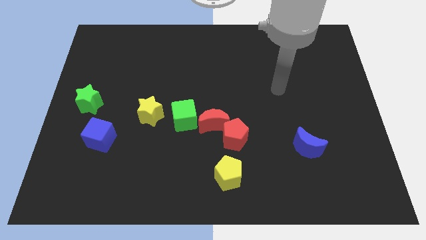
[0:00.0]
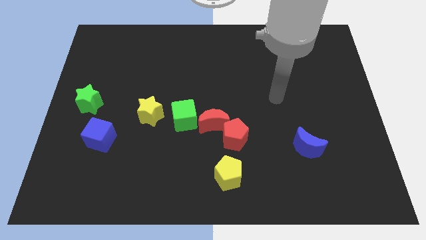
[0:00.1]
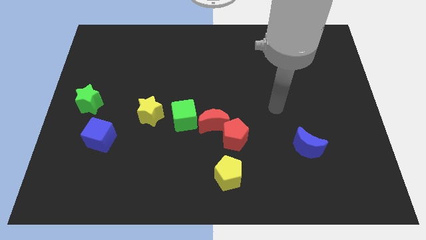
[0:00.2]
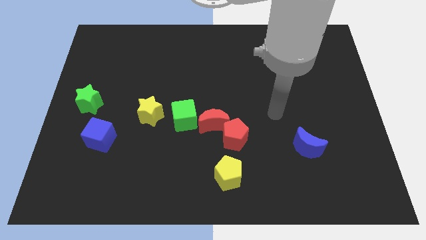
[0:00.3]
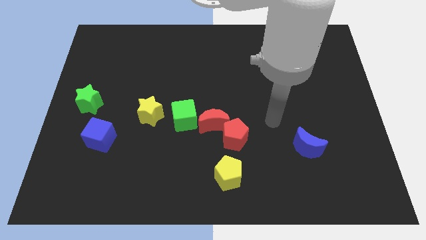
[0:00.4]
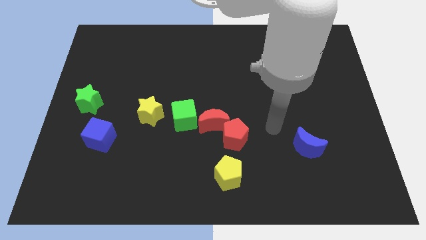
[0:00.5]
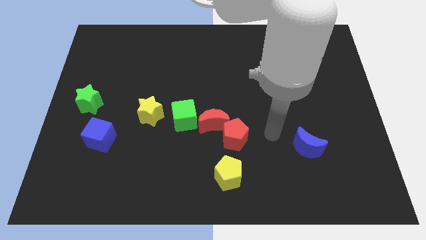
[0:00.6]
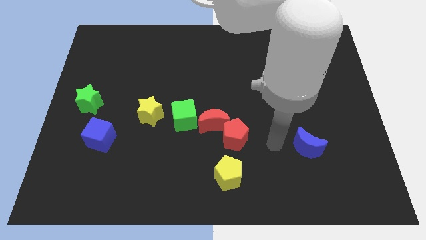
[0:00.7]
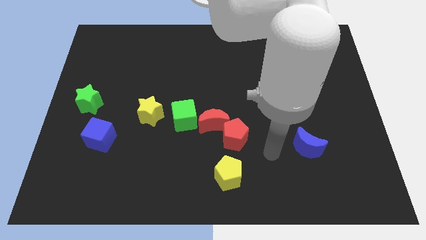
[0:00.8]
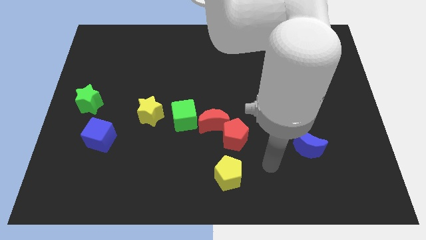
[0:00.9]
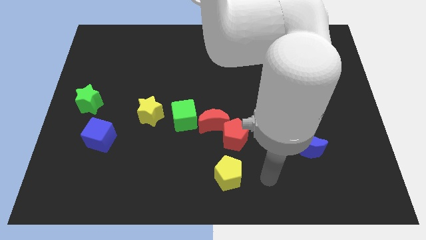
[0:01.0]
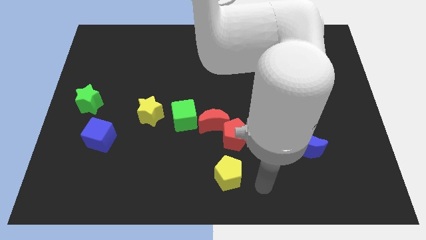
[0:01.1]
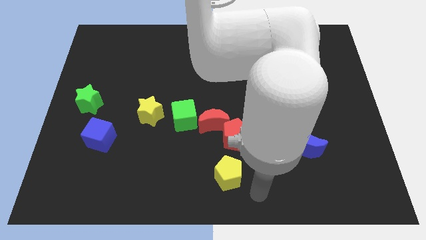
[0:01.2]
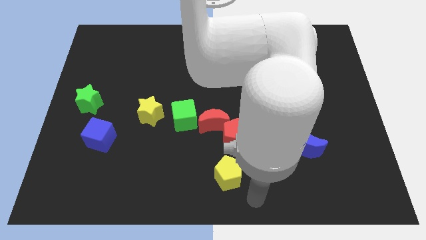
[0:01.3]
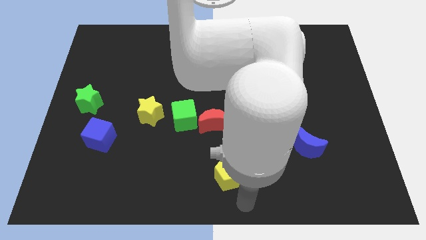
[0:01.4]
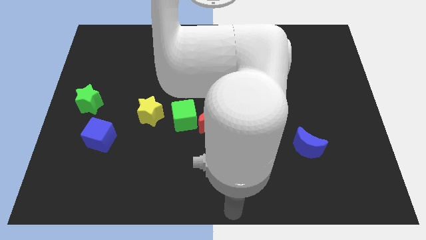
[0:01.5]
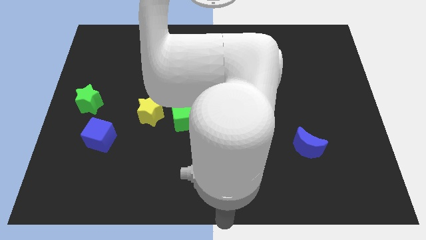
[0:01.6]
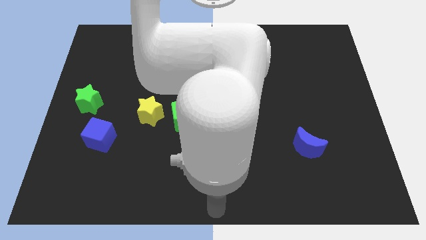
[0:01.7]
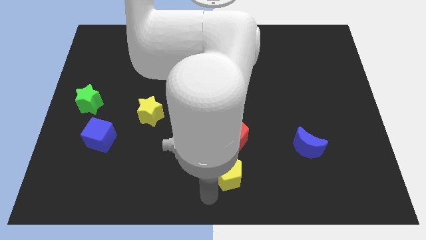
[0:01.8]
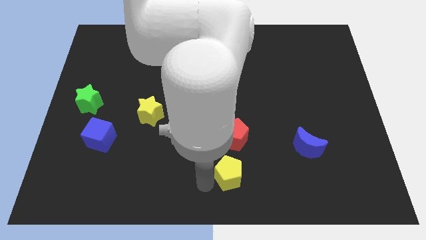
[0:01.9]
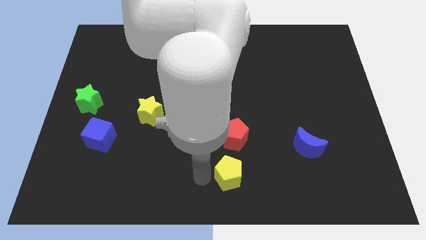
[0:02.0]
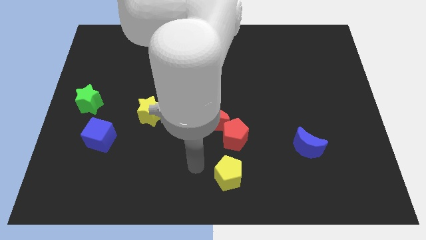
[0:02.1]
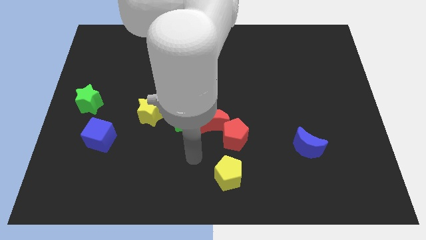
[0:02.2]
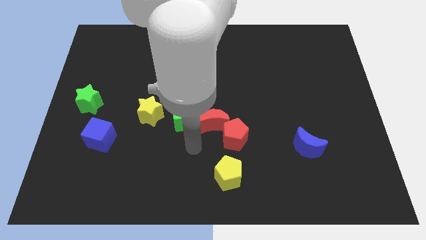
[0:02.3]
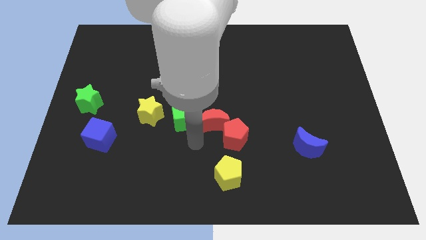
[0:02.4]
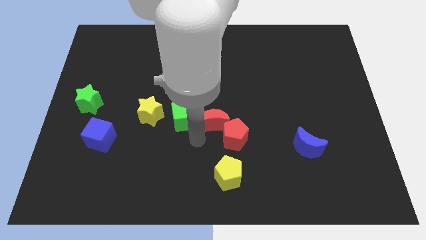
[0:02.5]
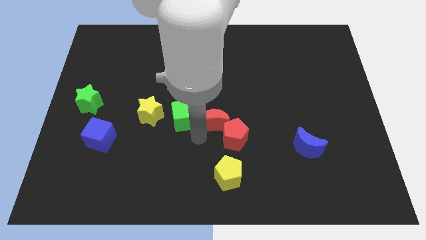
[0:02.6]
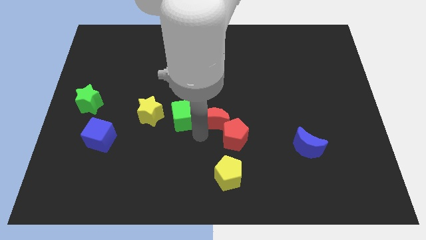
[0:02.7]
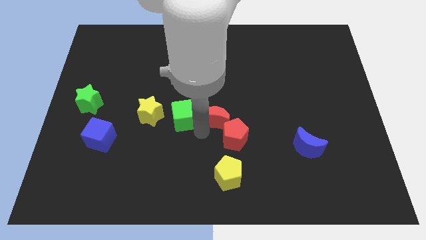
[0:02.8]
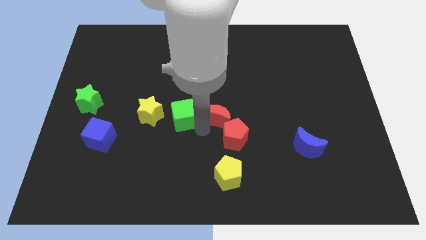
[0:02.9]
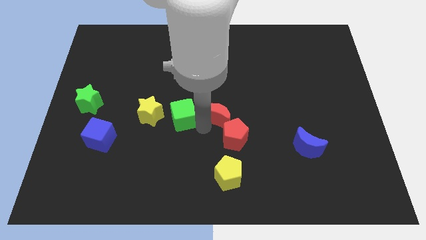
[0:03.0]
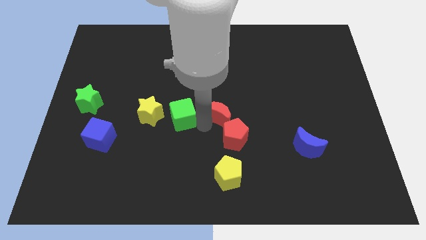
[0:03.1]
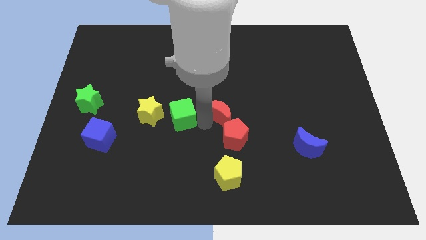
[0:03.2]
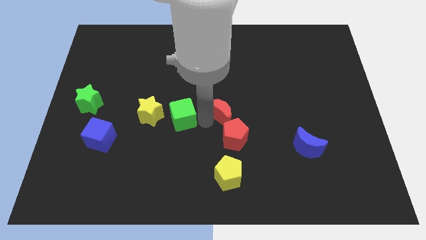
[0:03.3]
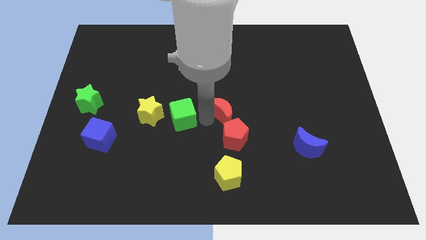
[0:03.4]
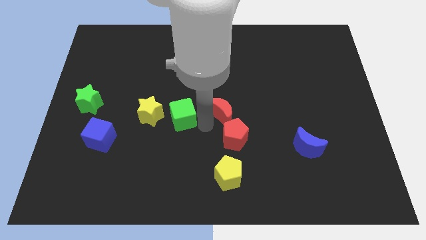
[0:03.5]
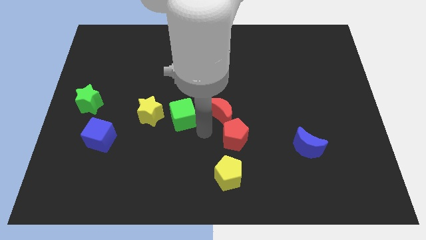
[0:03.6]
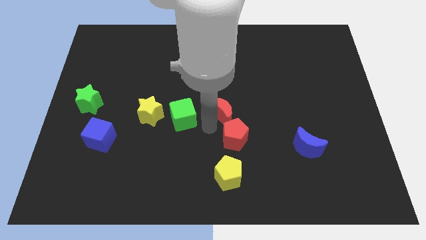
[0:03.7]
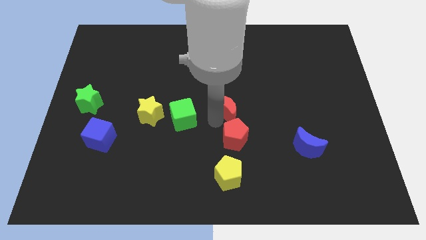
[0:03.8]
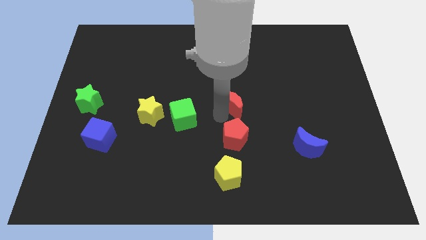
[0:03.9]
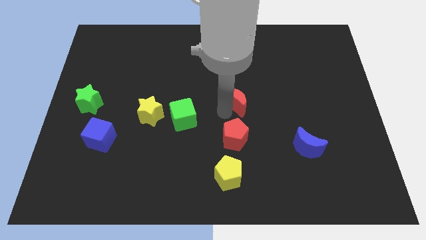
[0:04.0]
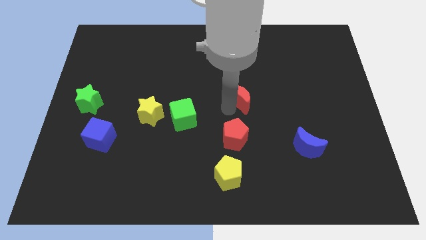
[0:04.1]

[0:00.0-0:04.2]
separate the red moon from the red pentagon and green cube

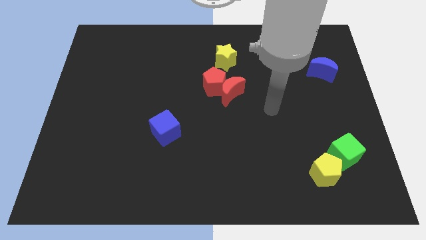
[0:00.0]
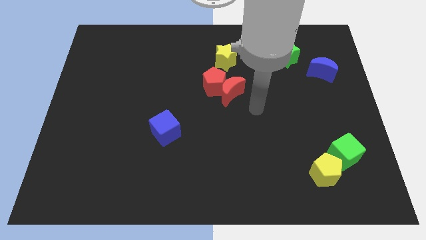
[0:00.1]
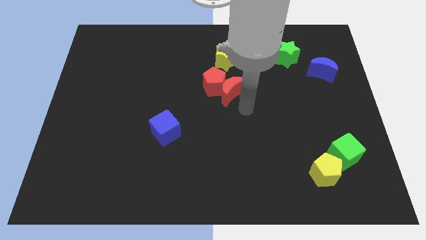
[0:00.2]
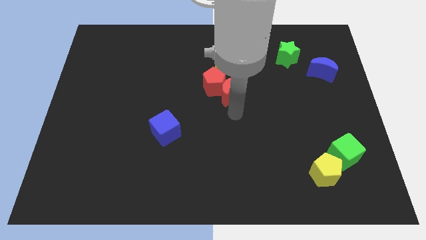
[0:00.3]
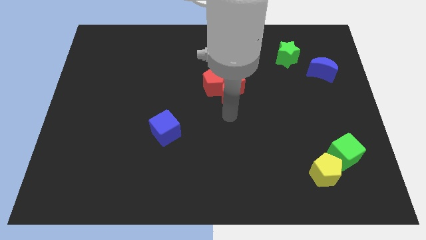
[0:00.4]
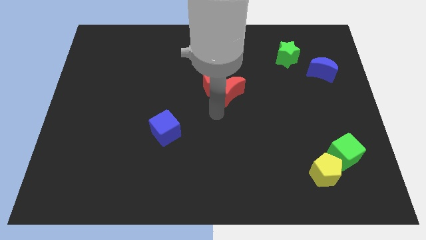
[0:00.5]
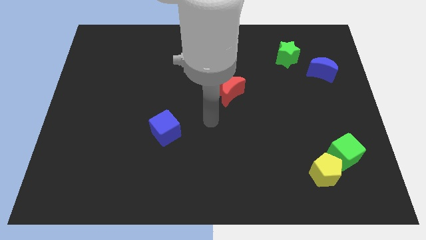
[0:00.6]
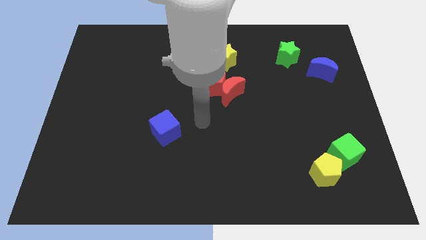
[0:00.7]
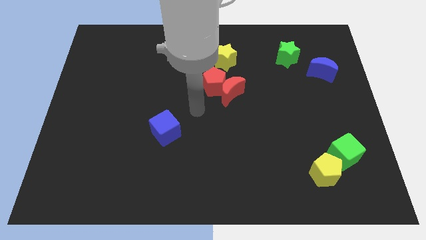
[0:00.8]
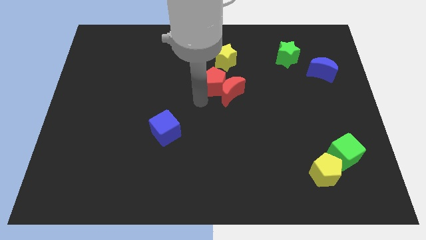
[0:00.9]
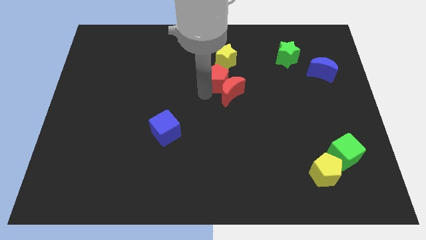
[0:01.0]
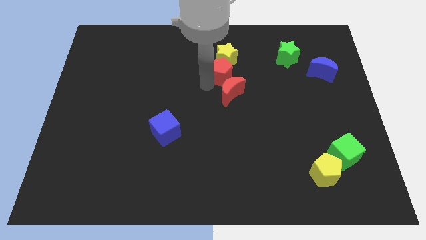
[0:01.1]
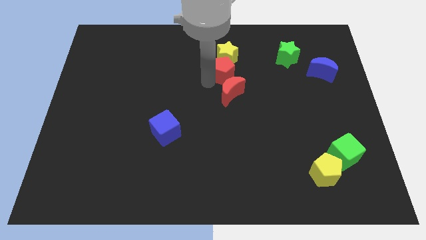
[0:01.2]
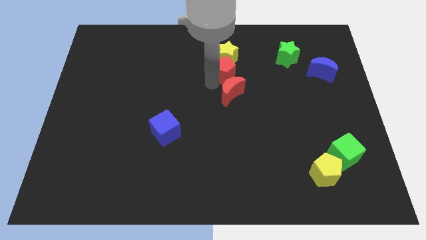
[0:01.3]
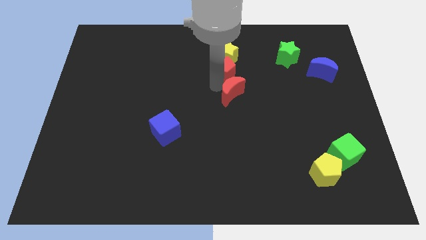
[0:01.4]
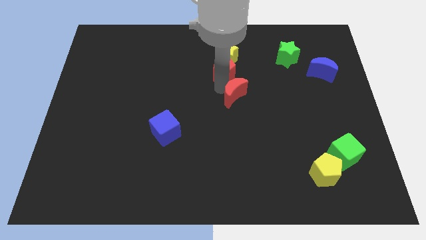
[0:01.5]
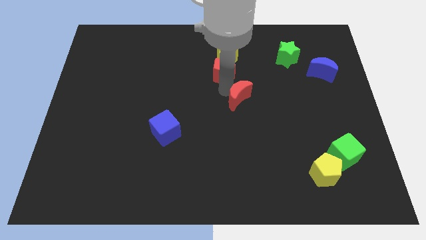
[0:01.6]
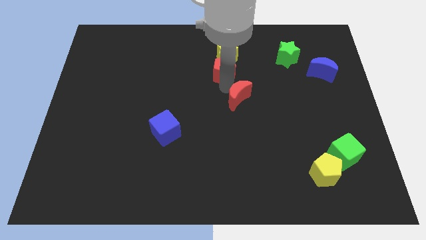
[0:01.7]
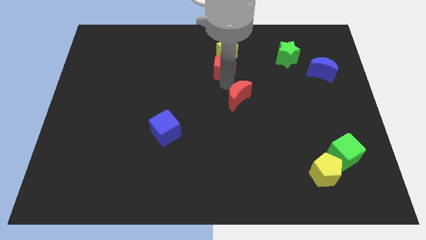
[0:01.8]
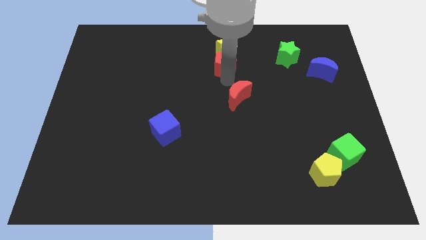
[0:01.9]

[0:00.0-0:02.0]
pull the red moon apart from the red pentagon

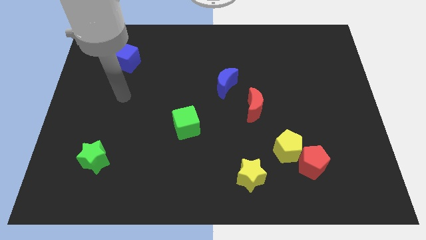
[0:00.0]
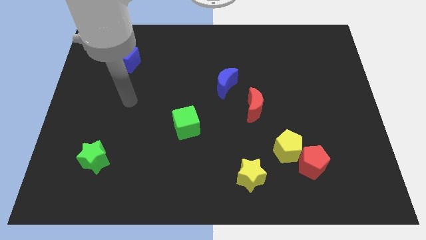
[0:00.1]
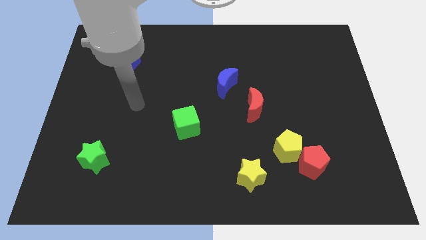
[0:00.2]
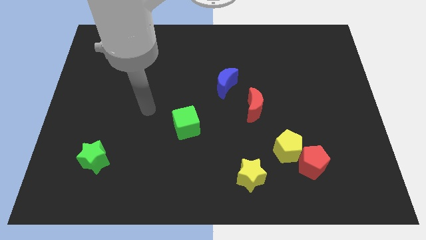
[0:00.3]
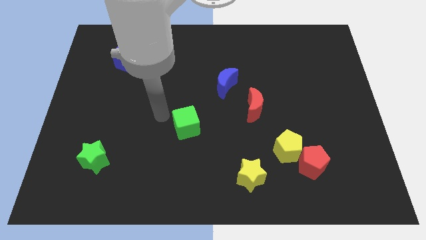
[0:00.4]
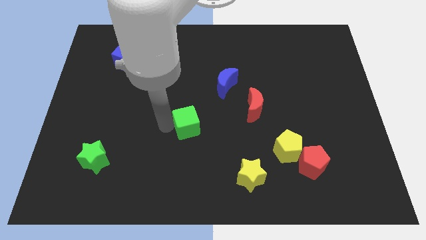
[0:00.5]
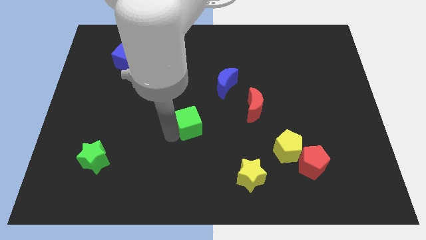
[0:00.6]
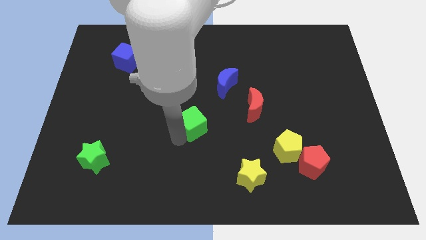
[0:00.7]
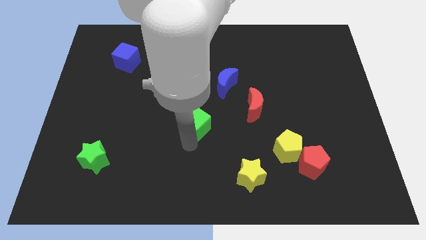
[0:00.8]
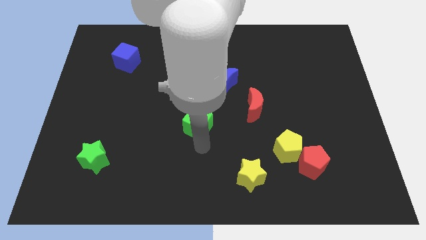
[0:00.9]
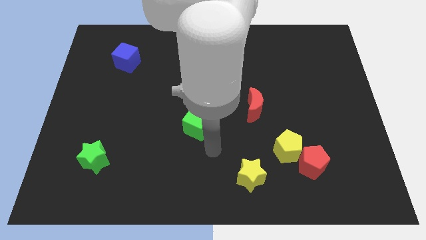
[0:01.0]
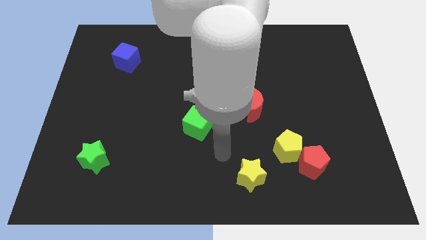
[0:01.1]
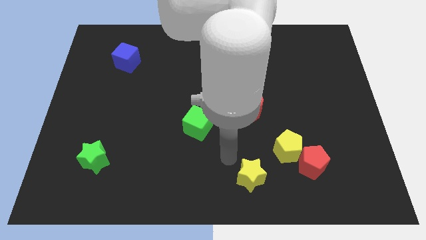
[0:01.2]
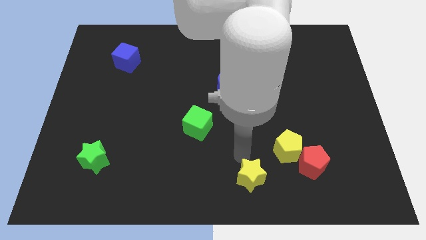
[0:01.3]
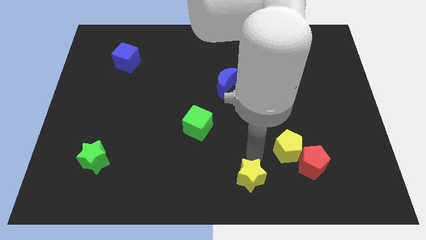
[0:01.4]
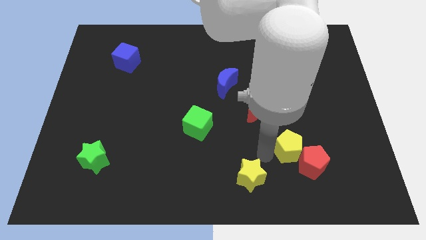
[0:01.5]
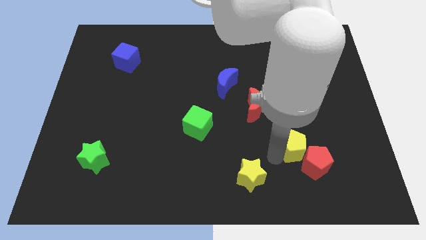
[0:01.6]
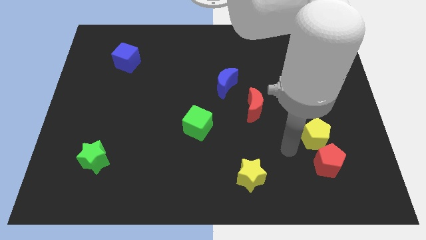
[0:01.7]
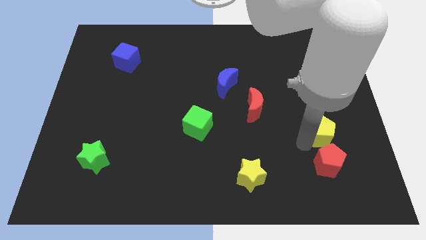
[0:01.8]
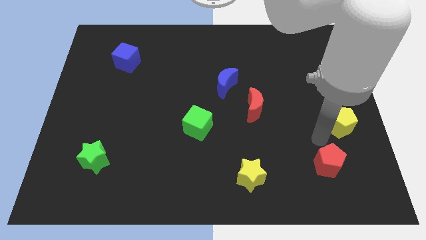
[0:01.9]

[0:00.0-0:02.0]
pull the red pentagon apart from the yellow pentagon

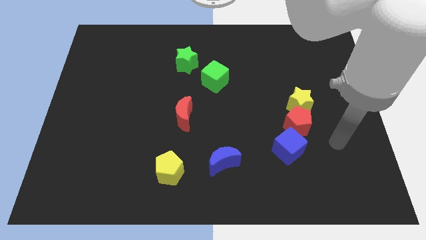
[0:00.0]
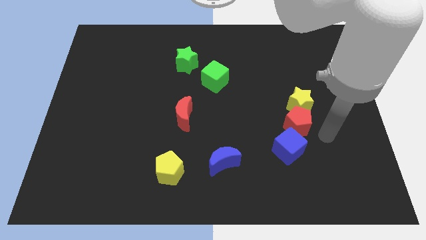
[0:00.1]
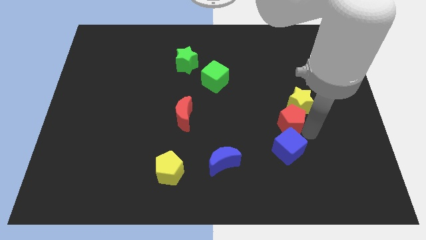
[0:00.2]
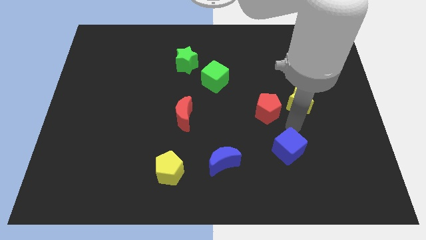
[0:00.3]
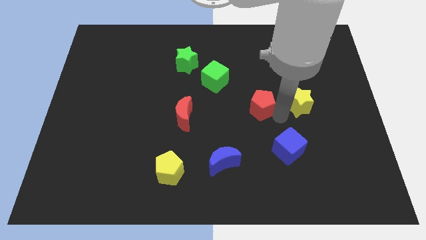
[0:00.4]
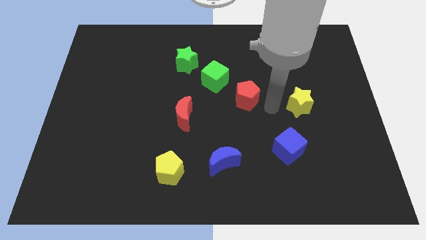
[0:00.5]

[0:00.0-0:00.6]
move the yellow star away from the red pentagon

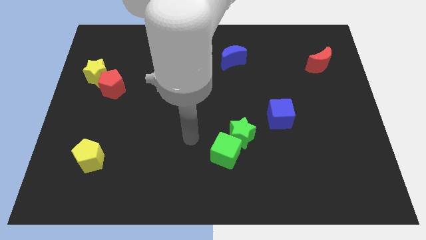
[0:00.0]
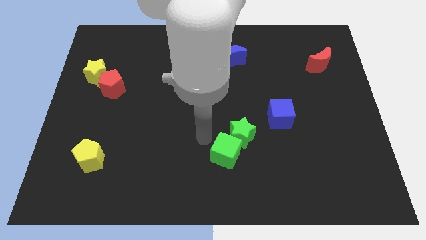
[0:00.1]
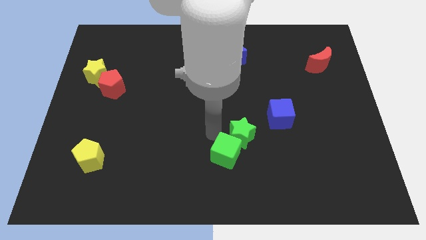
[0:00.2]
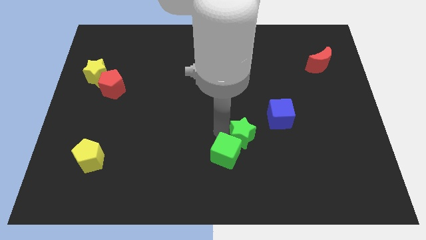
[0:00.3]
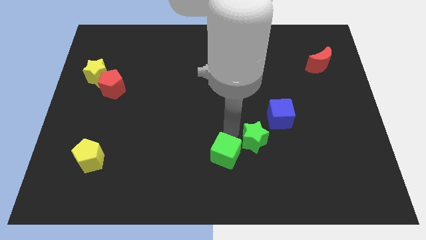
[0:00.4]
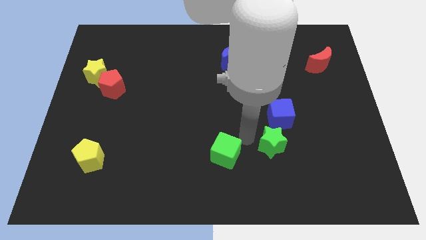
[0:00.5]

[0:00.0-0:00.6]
move the green cube away from the green star

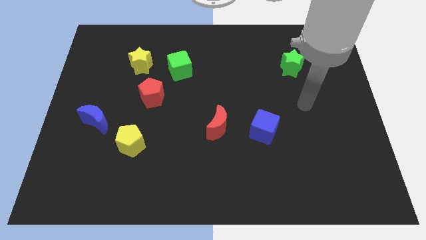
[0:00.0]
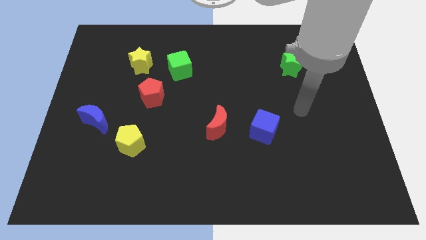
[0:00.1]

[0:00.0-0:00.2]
move the red moon away from the blue cube
